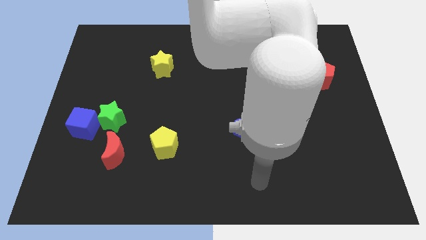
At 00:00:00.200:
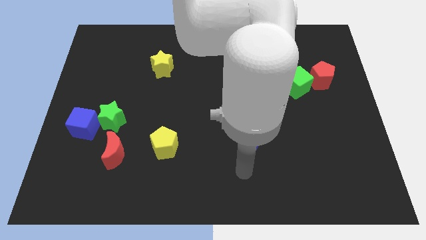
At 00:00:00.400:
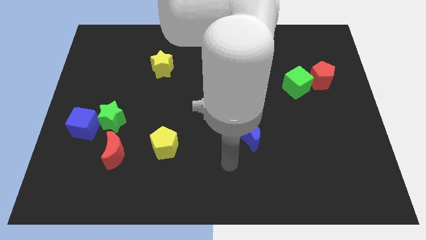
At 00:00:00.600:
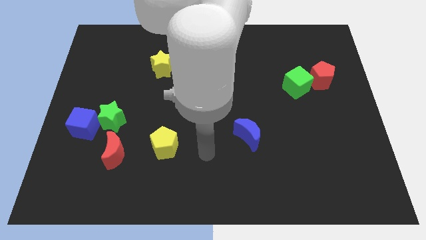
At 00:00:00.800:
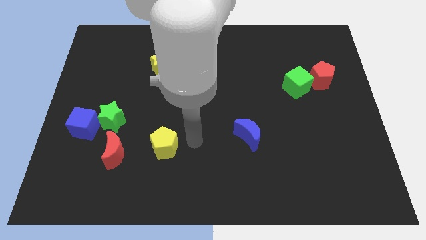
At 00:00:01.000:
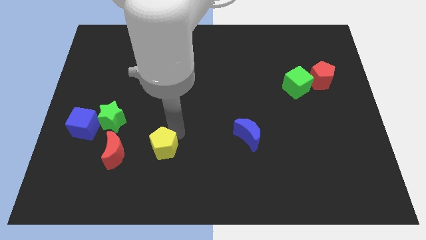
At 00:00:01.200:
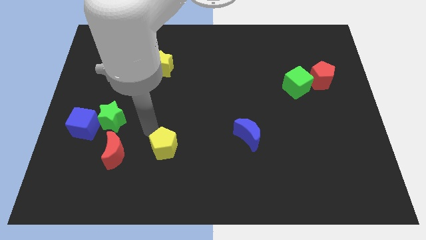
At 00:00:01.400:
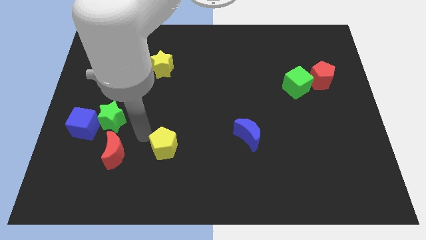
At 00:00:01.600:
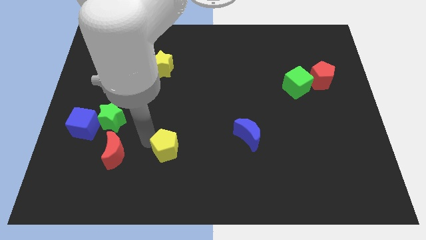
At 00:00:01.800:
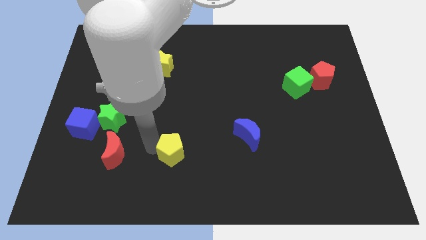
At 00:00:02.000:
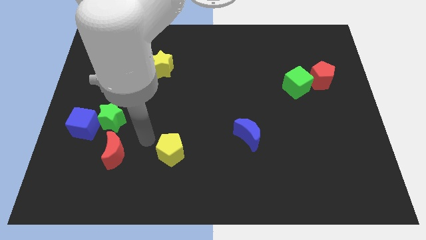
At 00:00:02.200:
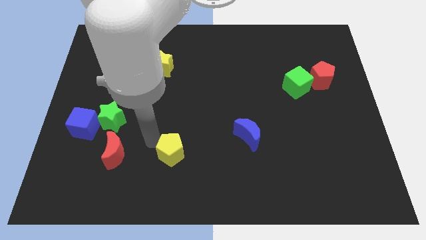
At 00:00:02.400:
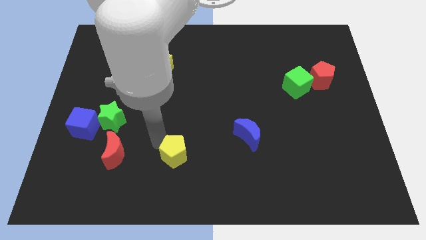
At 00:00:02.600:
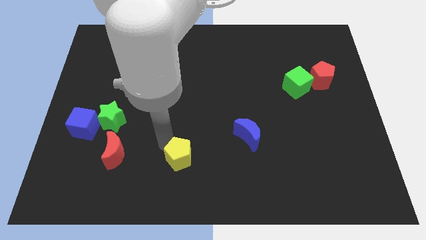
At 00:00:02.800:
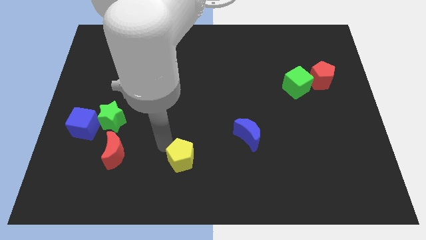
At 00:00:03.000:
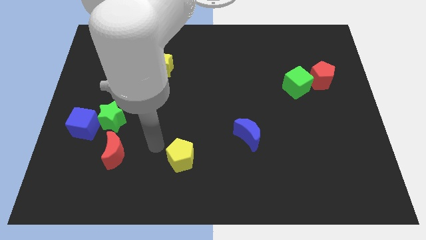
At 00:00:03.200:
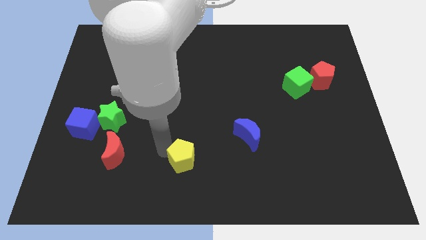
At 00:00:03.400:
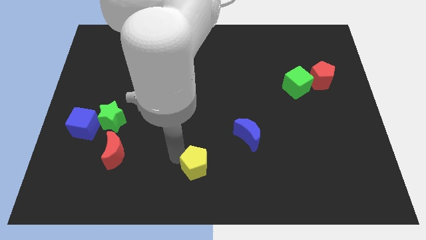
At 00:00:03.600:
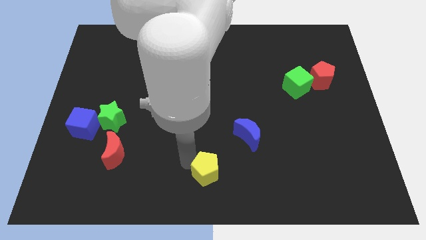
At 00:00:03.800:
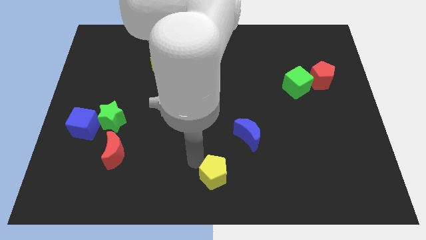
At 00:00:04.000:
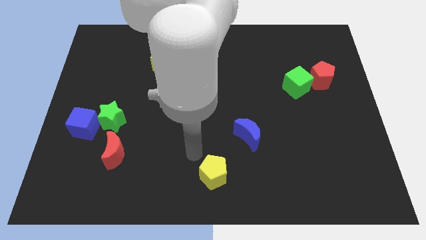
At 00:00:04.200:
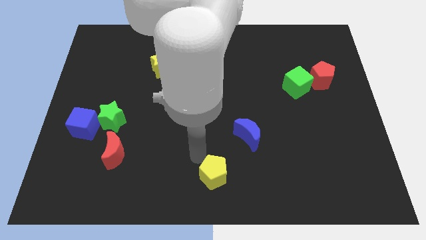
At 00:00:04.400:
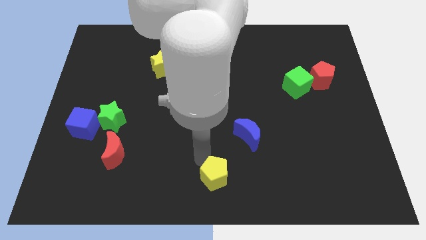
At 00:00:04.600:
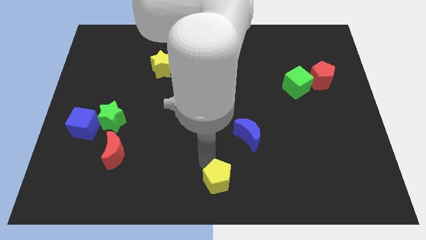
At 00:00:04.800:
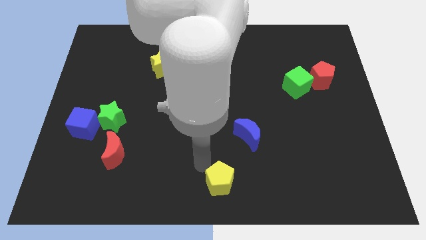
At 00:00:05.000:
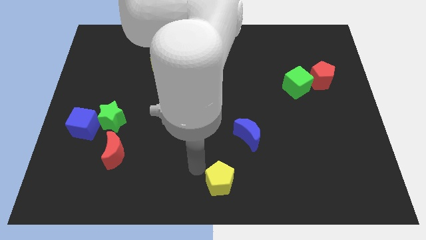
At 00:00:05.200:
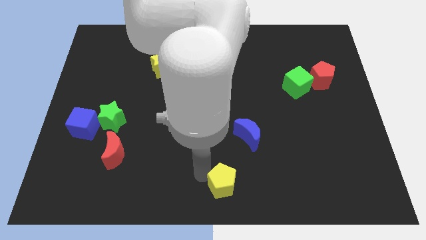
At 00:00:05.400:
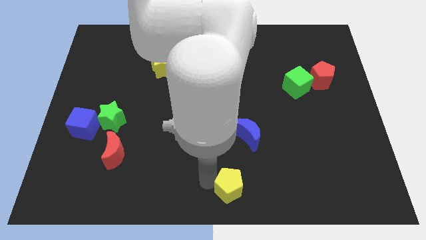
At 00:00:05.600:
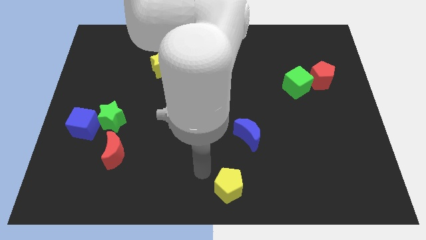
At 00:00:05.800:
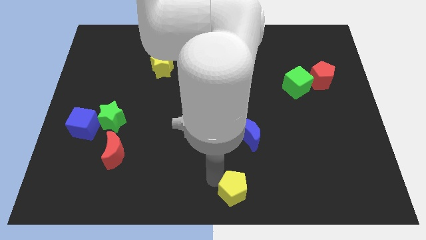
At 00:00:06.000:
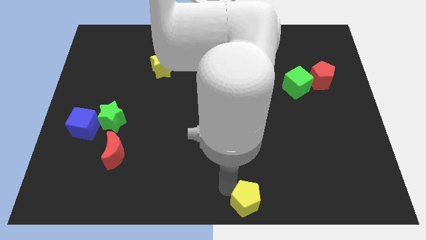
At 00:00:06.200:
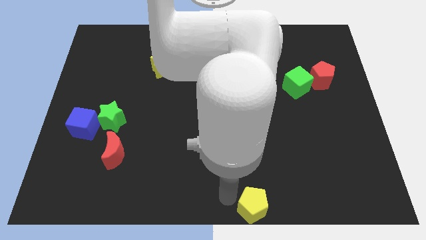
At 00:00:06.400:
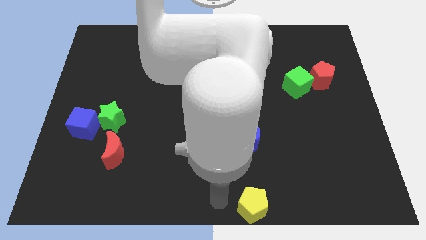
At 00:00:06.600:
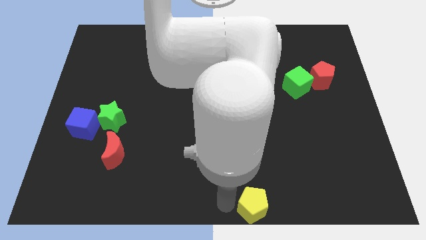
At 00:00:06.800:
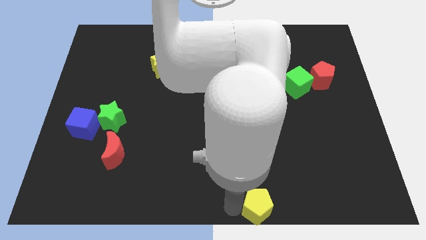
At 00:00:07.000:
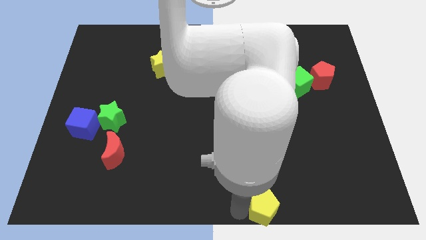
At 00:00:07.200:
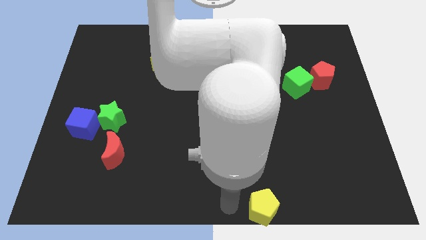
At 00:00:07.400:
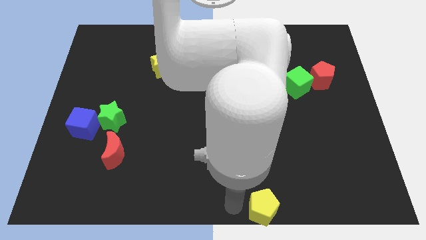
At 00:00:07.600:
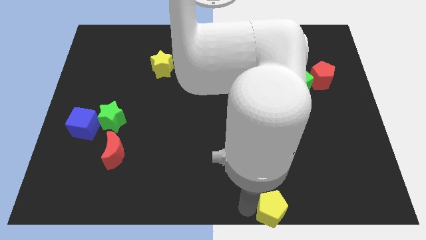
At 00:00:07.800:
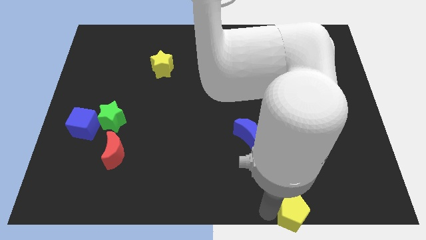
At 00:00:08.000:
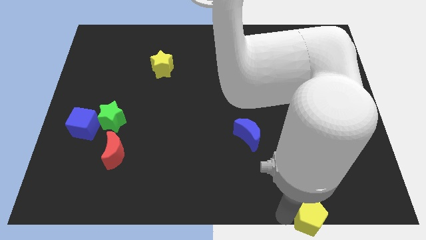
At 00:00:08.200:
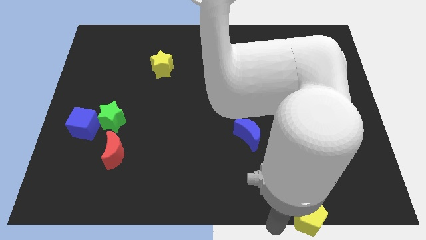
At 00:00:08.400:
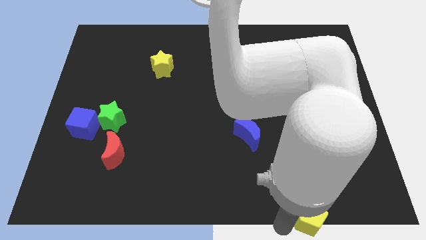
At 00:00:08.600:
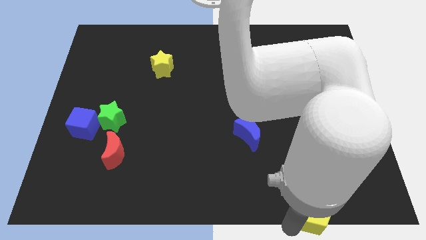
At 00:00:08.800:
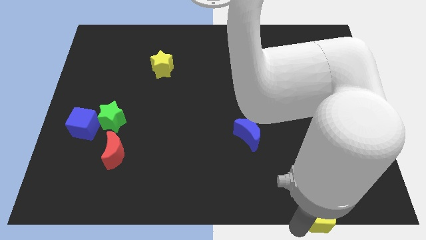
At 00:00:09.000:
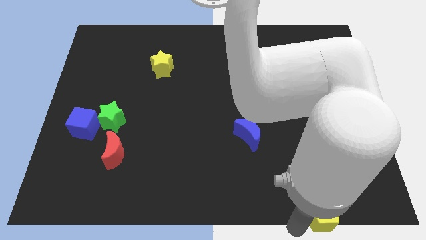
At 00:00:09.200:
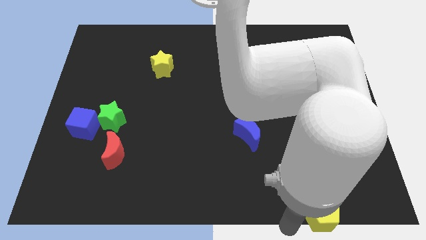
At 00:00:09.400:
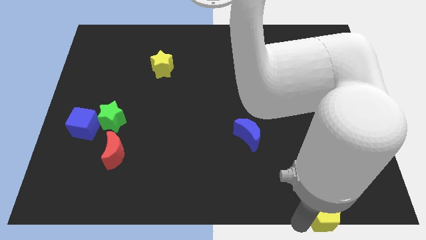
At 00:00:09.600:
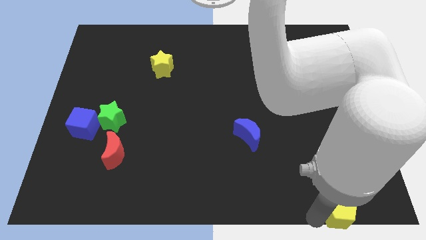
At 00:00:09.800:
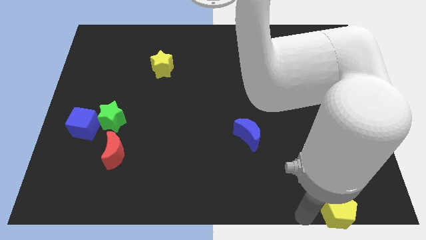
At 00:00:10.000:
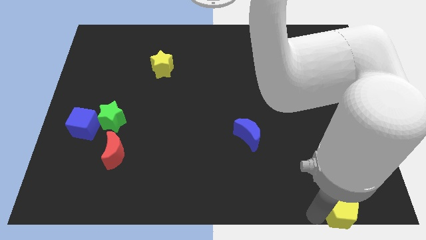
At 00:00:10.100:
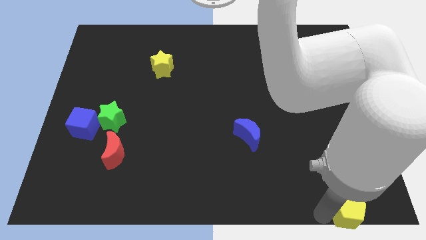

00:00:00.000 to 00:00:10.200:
move the yellow pentagon to the lower right corner

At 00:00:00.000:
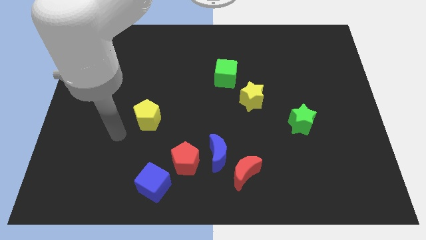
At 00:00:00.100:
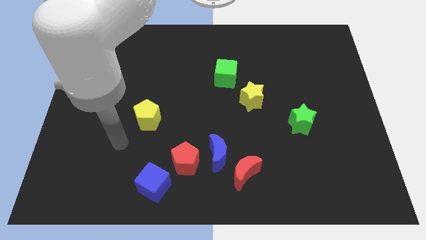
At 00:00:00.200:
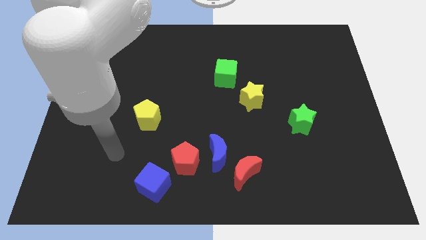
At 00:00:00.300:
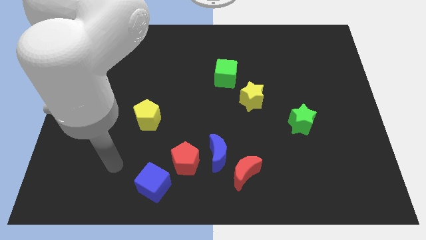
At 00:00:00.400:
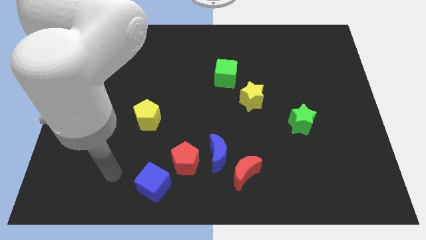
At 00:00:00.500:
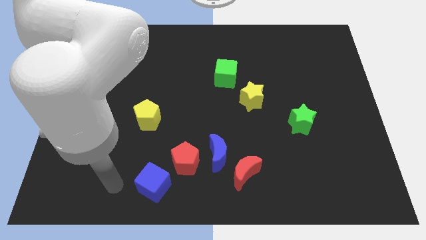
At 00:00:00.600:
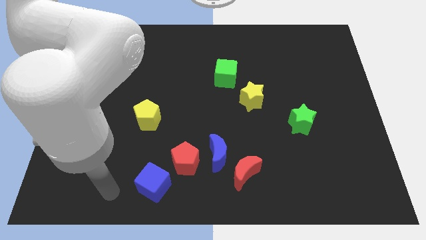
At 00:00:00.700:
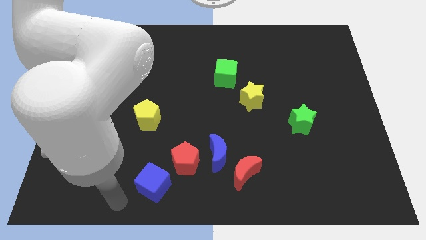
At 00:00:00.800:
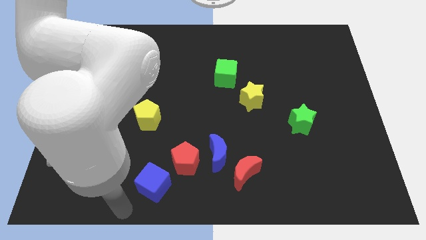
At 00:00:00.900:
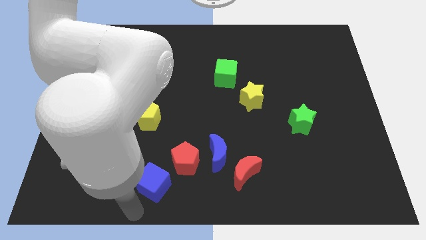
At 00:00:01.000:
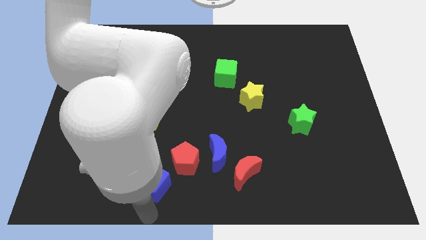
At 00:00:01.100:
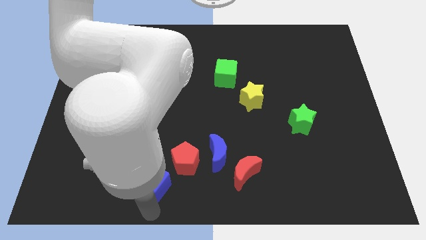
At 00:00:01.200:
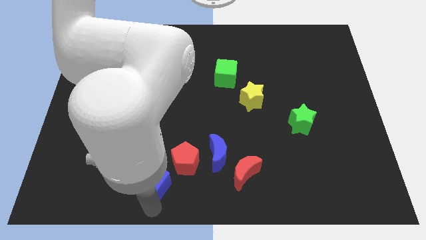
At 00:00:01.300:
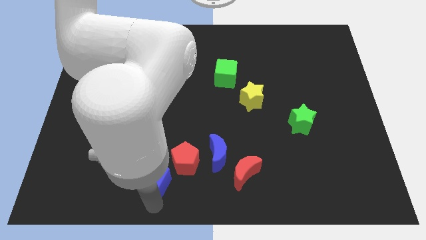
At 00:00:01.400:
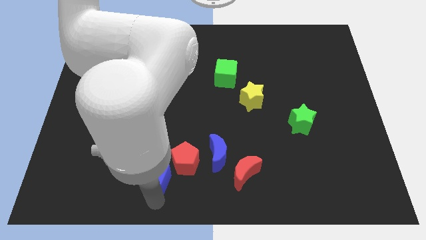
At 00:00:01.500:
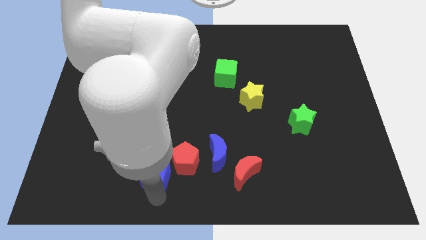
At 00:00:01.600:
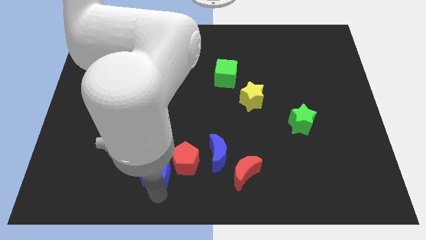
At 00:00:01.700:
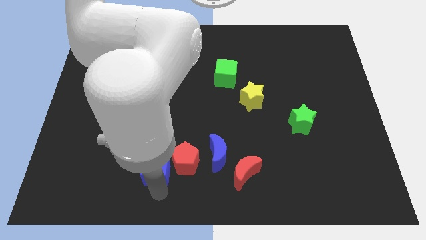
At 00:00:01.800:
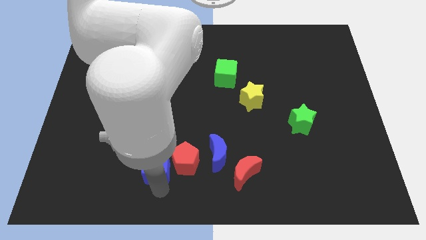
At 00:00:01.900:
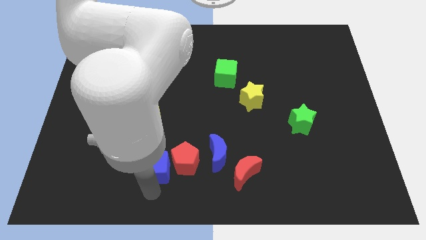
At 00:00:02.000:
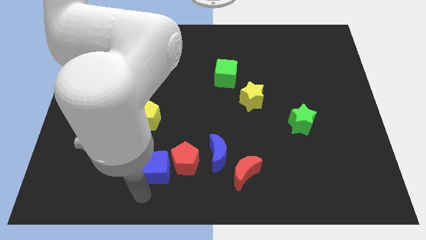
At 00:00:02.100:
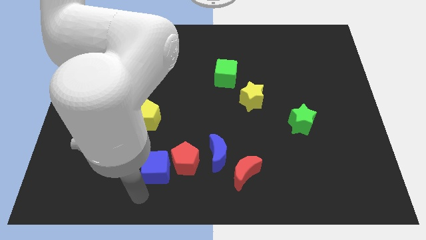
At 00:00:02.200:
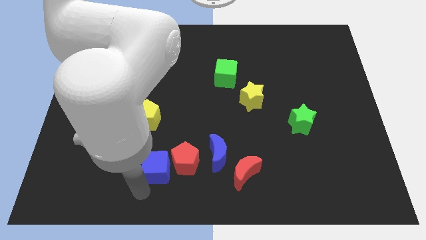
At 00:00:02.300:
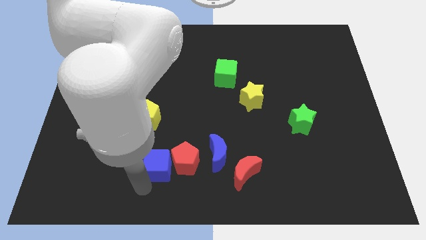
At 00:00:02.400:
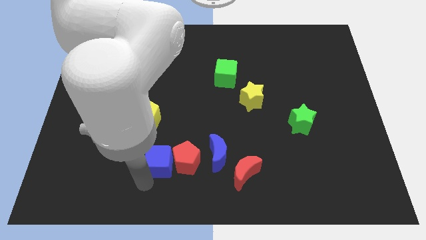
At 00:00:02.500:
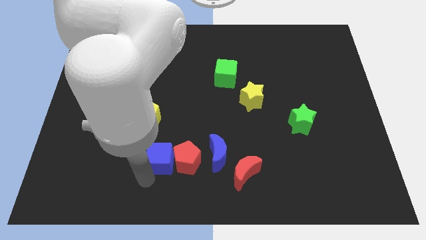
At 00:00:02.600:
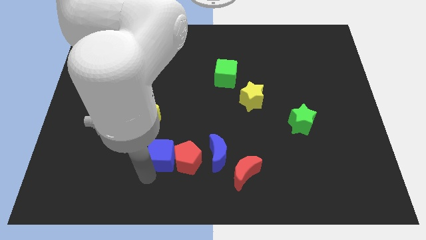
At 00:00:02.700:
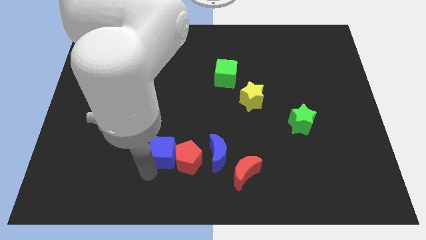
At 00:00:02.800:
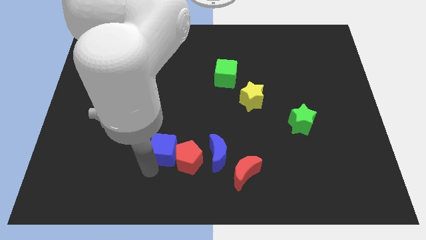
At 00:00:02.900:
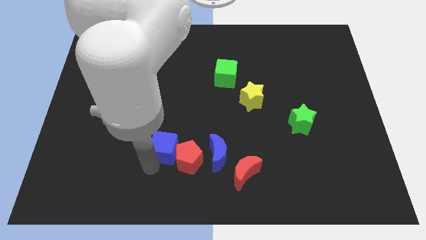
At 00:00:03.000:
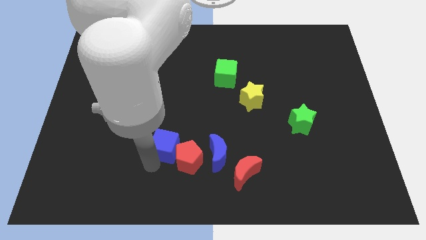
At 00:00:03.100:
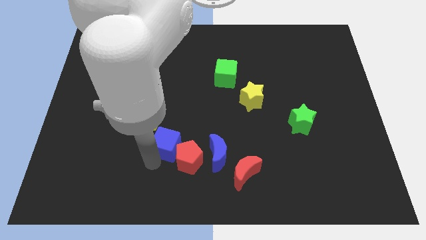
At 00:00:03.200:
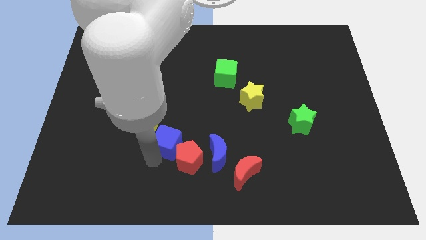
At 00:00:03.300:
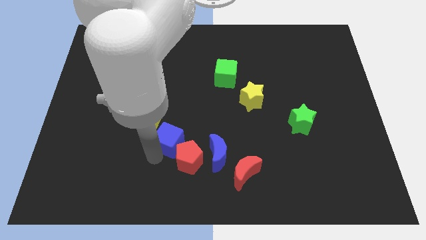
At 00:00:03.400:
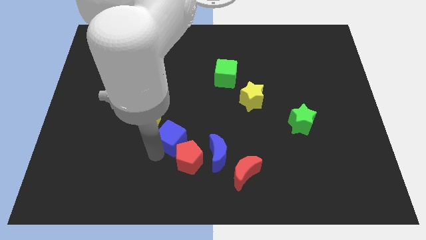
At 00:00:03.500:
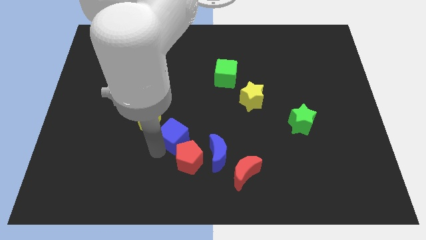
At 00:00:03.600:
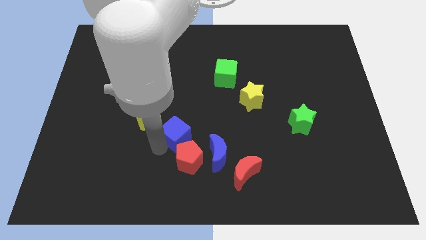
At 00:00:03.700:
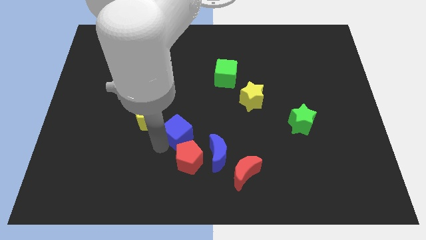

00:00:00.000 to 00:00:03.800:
put the blue cube to the center
